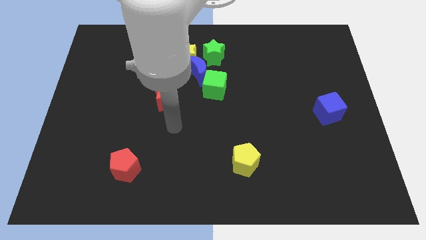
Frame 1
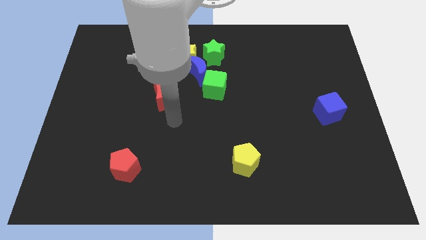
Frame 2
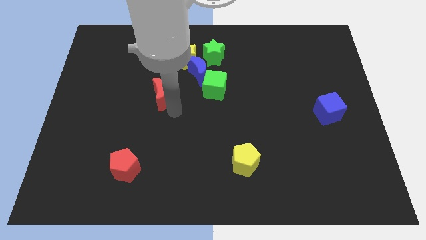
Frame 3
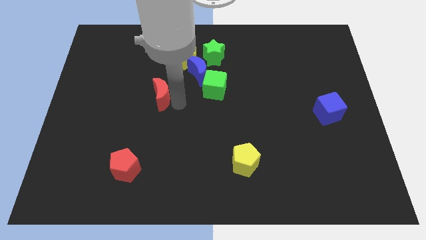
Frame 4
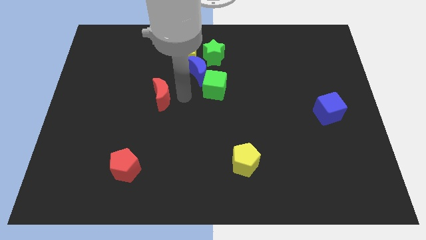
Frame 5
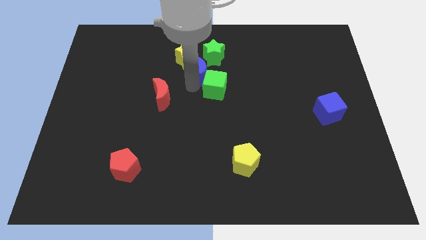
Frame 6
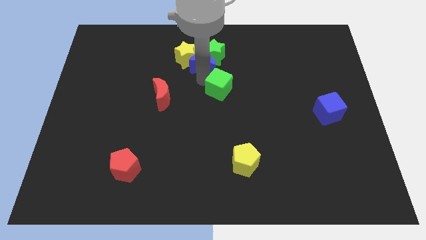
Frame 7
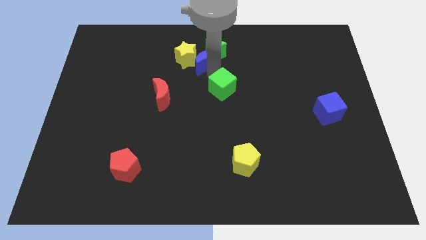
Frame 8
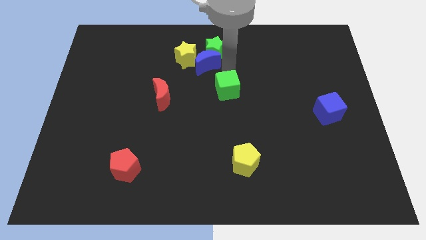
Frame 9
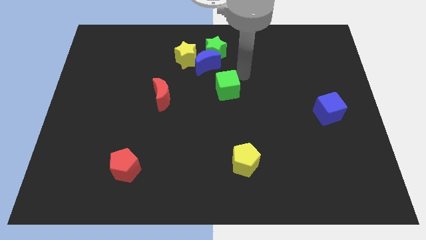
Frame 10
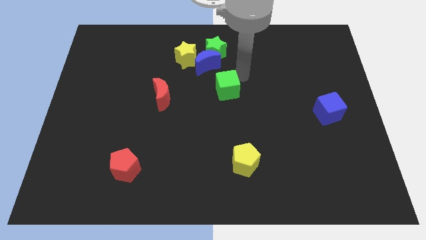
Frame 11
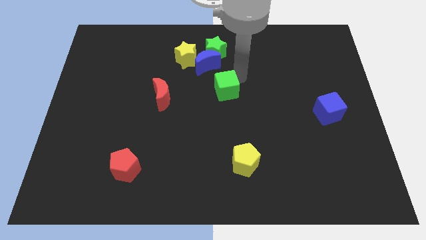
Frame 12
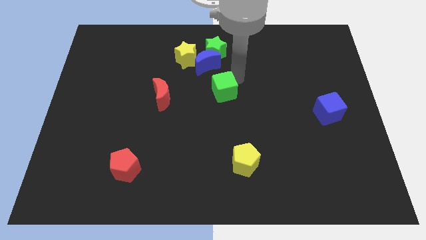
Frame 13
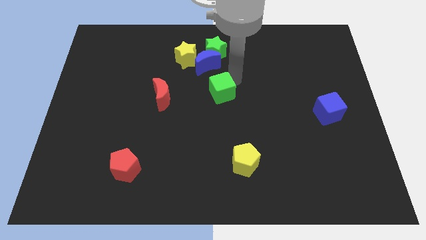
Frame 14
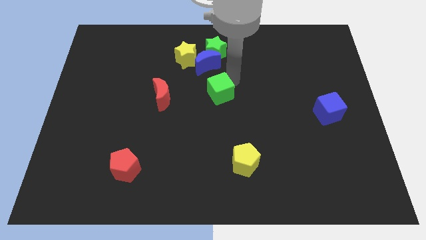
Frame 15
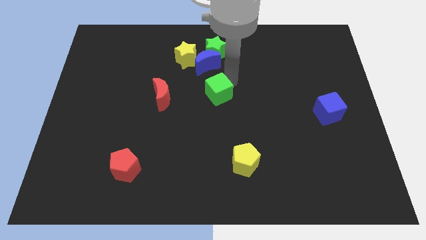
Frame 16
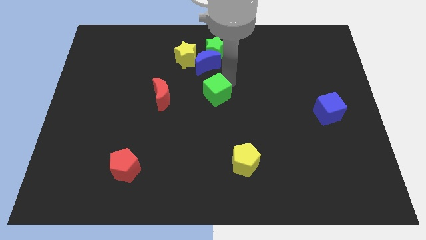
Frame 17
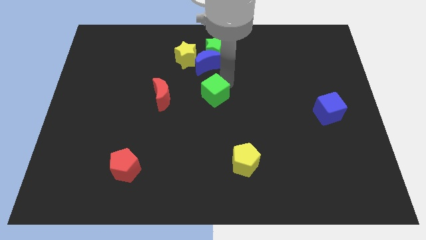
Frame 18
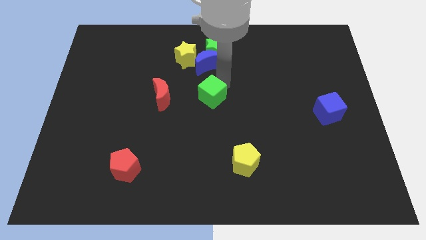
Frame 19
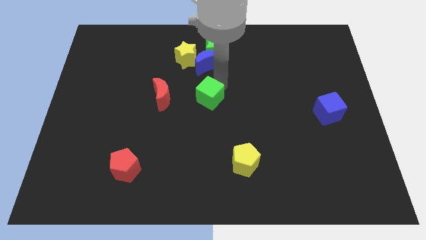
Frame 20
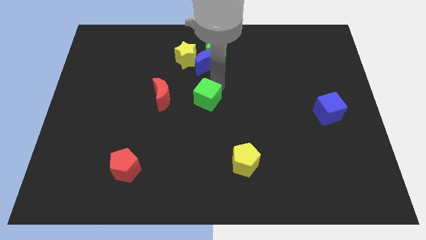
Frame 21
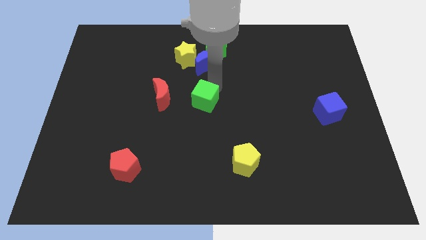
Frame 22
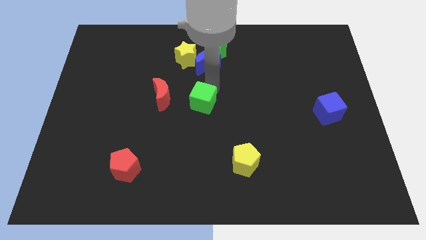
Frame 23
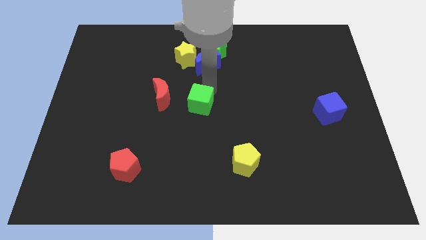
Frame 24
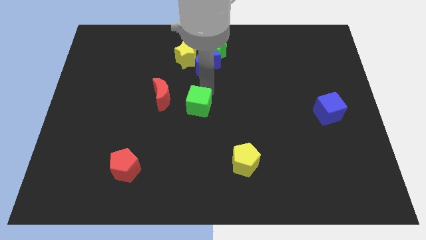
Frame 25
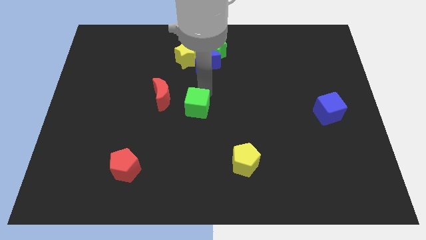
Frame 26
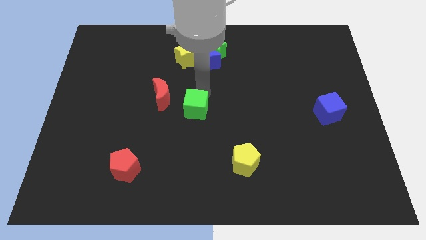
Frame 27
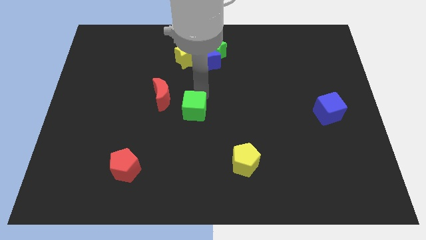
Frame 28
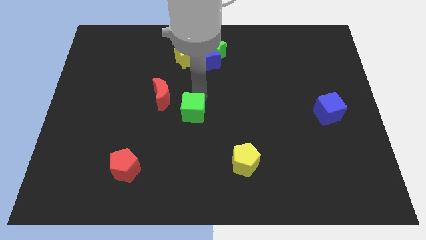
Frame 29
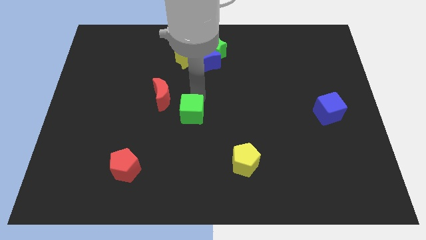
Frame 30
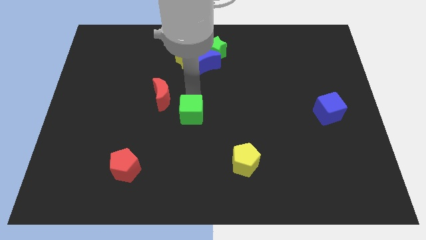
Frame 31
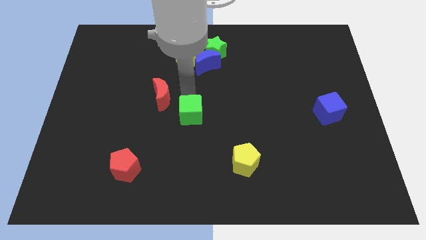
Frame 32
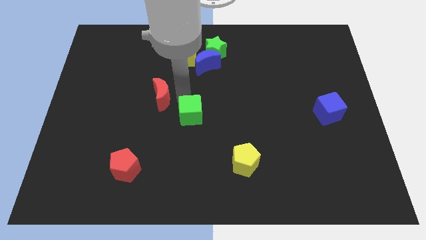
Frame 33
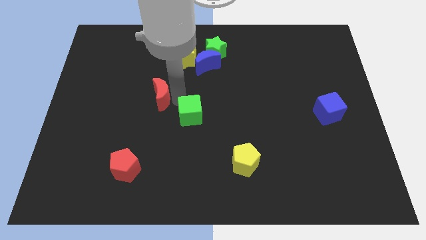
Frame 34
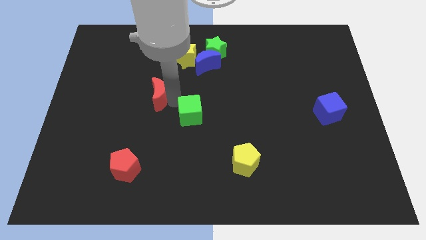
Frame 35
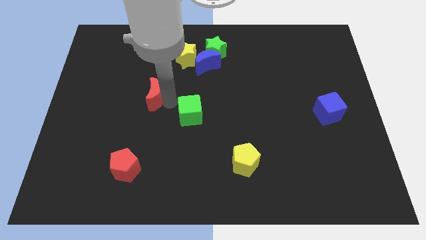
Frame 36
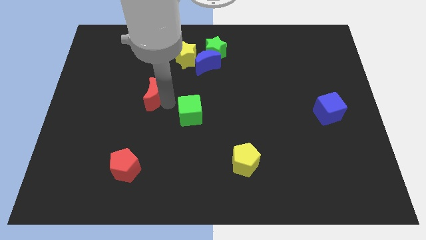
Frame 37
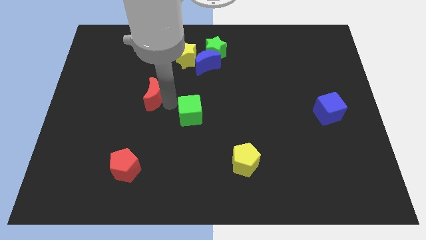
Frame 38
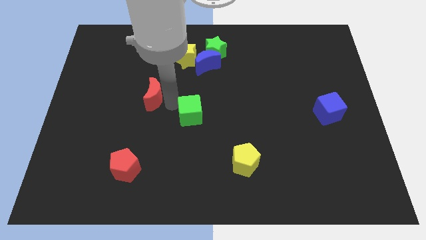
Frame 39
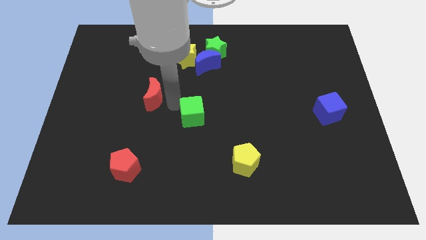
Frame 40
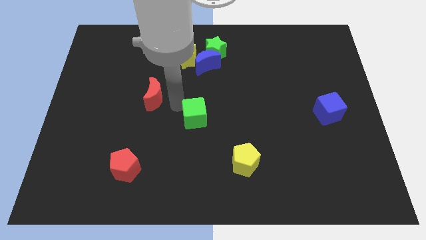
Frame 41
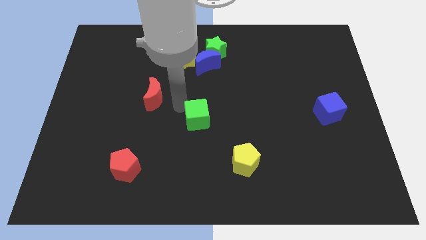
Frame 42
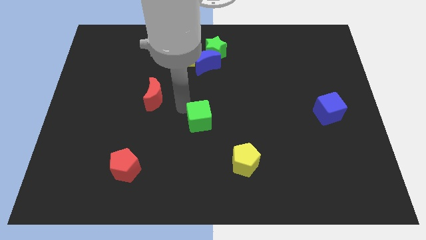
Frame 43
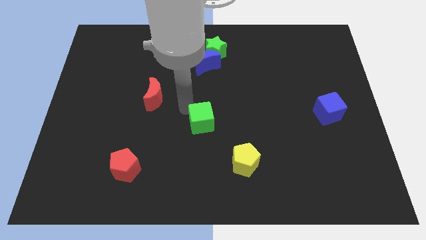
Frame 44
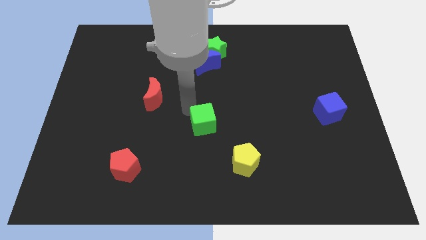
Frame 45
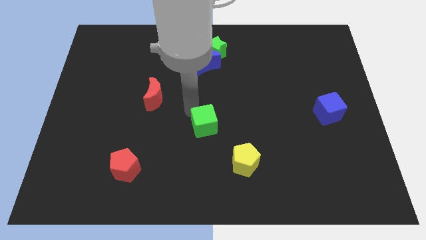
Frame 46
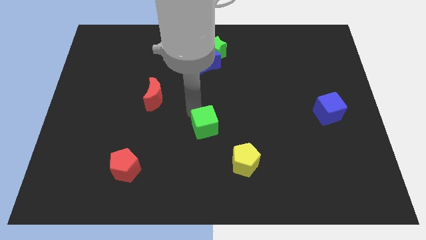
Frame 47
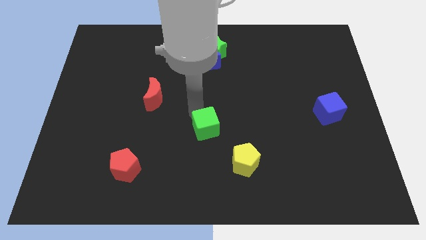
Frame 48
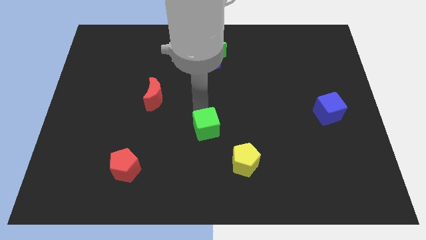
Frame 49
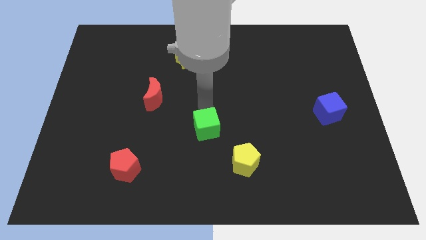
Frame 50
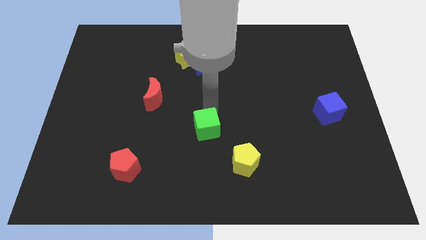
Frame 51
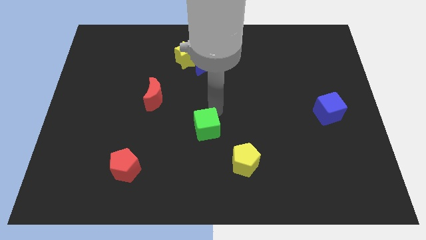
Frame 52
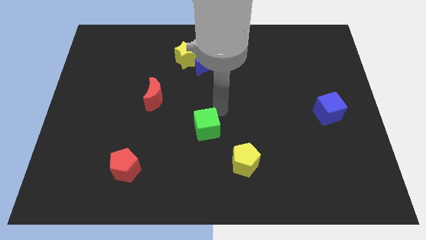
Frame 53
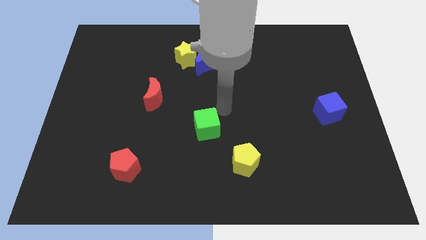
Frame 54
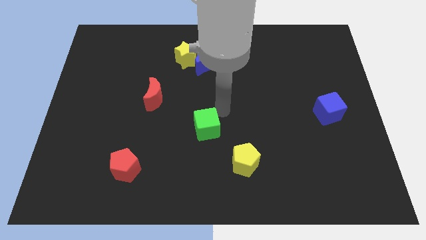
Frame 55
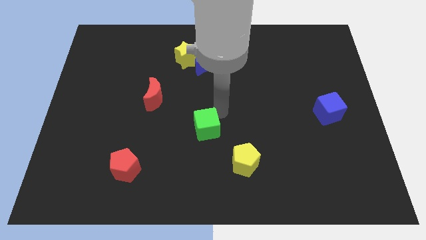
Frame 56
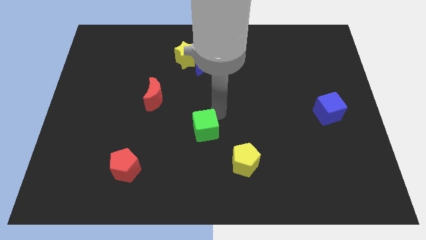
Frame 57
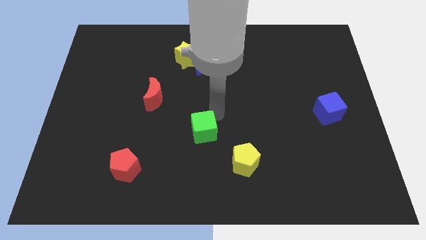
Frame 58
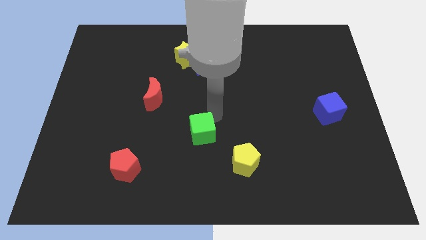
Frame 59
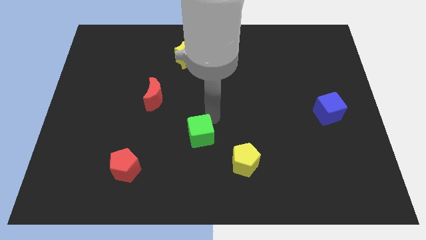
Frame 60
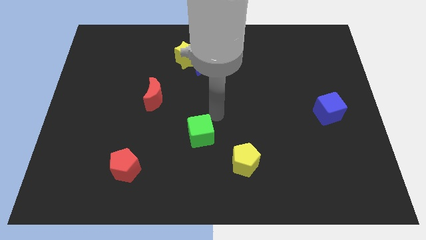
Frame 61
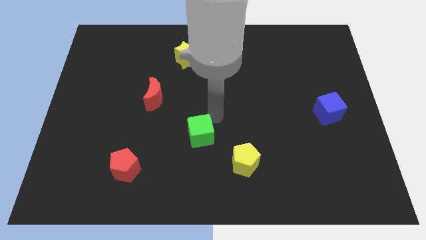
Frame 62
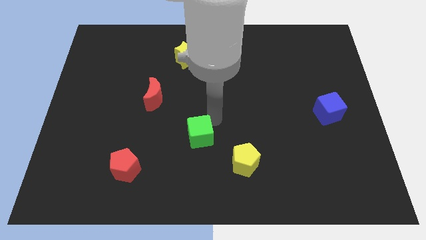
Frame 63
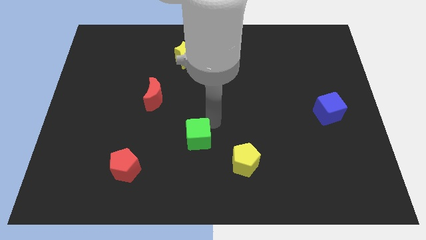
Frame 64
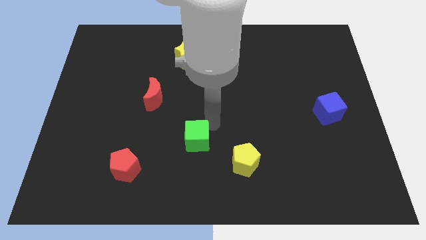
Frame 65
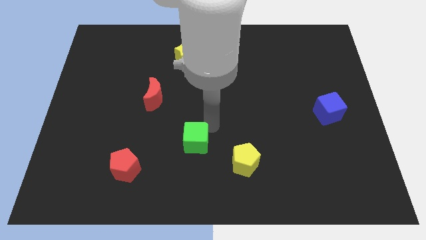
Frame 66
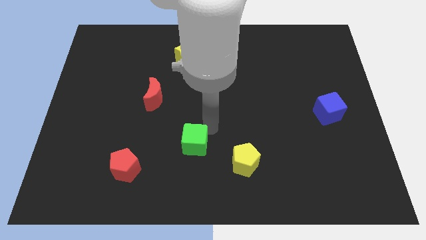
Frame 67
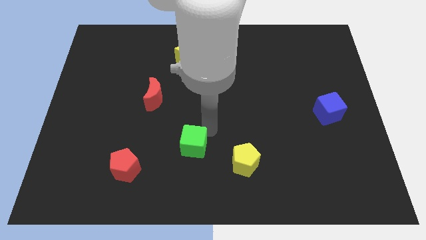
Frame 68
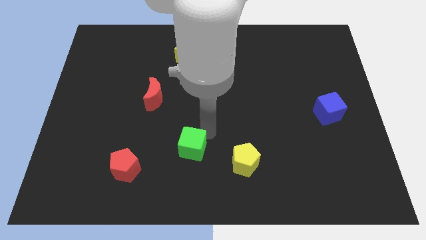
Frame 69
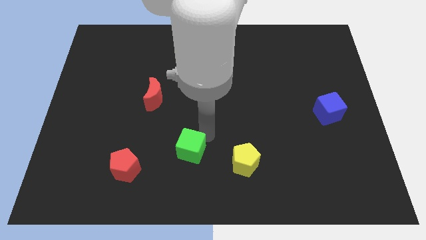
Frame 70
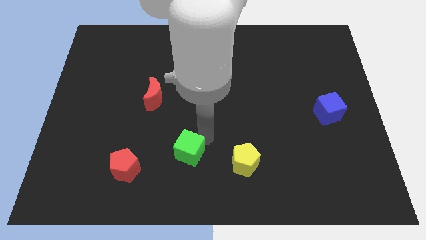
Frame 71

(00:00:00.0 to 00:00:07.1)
put the green cube just right of the red pentagon

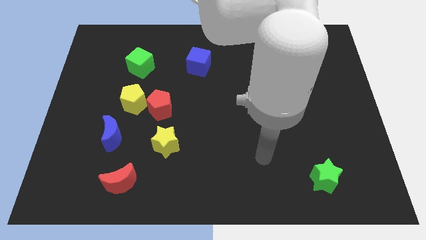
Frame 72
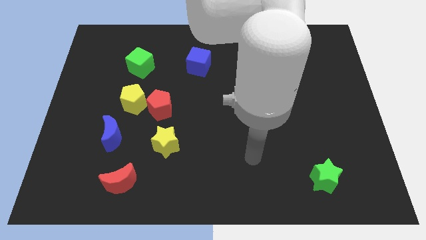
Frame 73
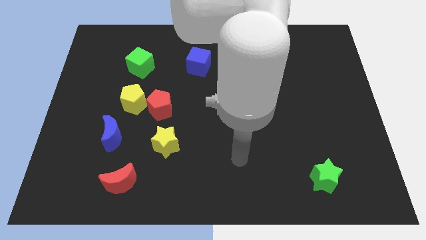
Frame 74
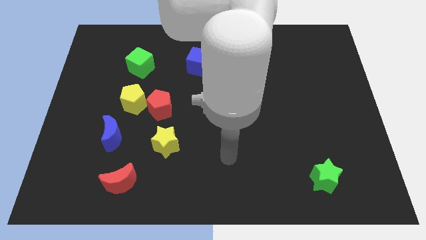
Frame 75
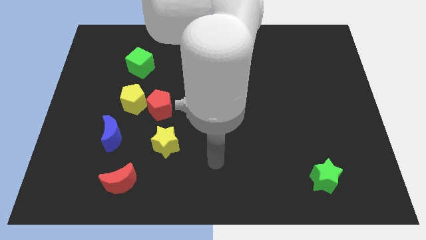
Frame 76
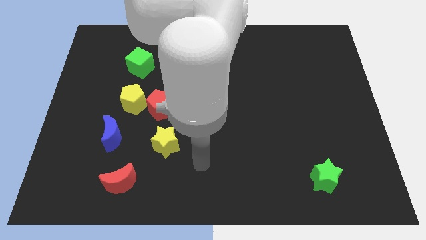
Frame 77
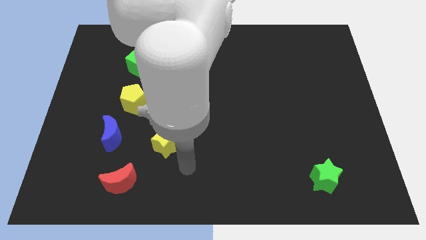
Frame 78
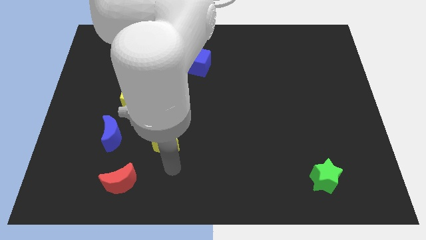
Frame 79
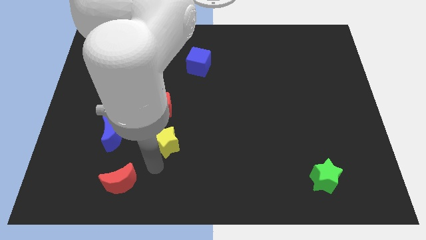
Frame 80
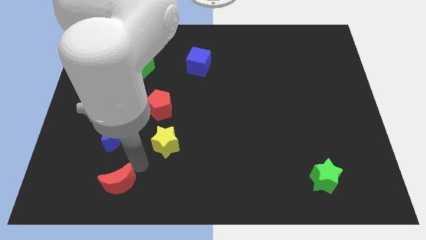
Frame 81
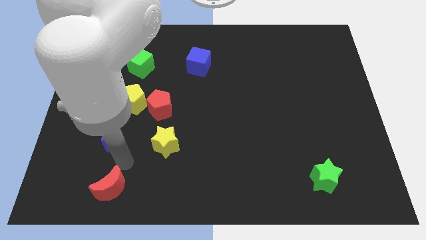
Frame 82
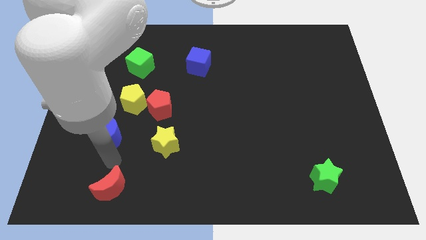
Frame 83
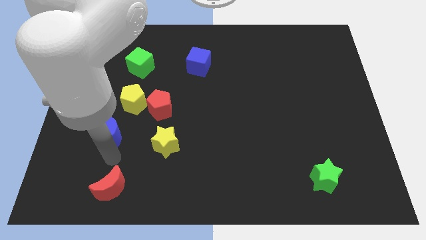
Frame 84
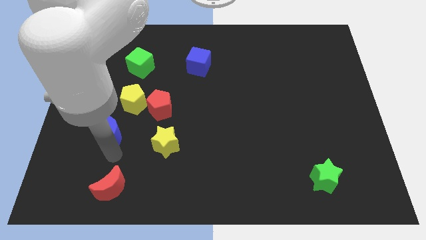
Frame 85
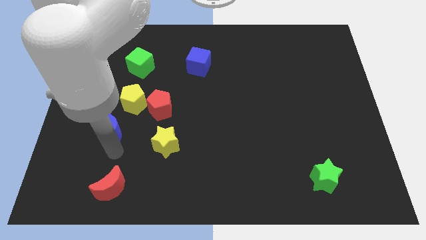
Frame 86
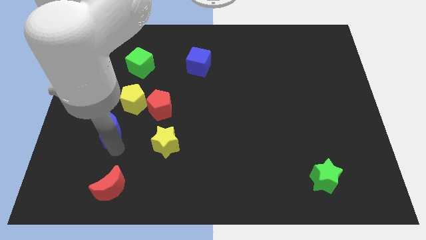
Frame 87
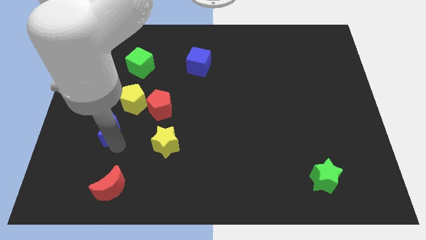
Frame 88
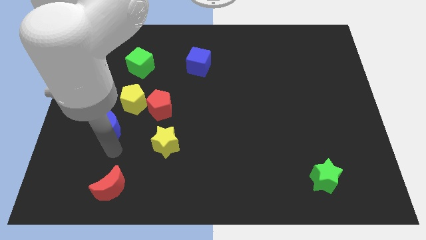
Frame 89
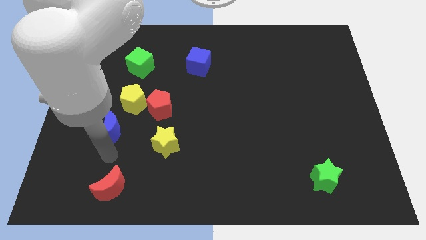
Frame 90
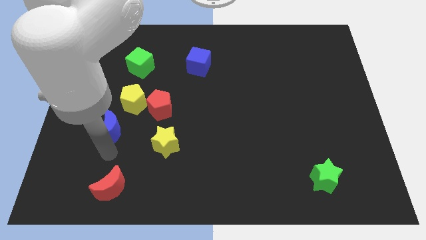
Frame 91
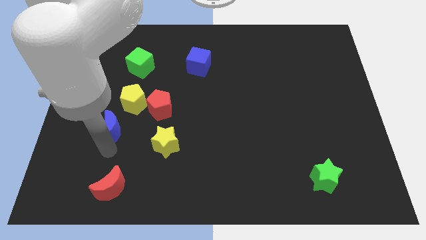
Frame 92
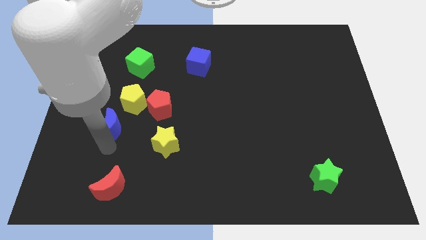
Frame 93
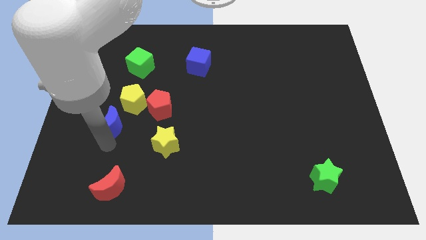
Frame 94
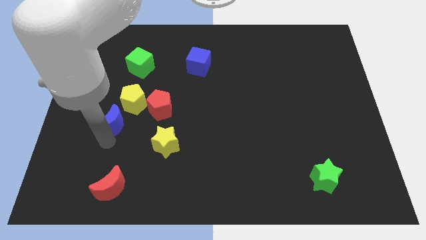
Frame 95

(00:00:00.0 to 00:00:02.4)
put the blue moon just left of the red pentagon
